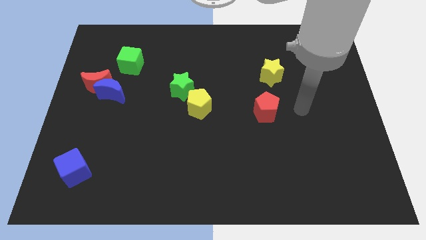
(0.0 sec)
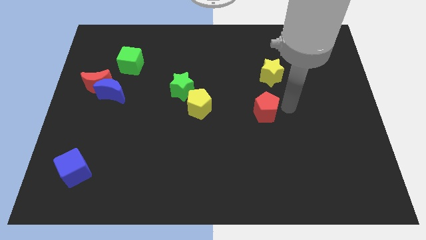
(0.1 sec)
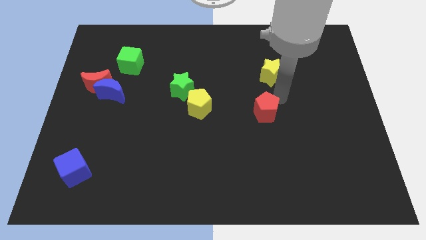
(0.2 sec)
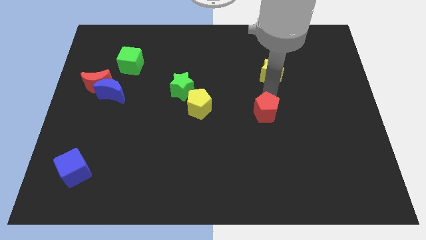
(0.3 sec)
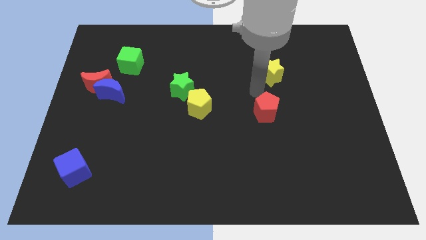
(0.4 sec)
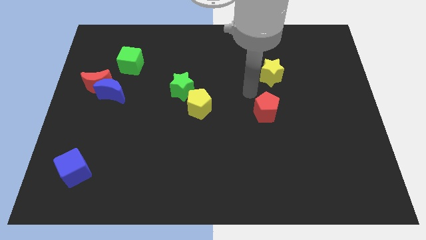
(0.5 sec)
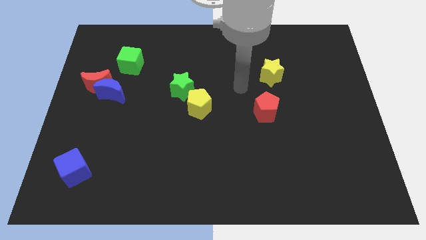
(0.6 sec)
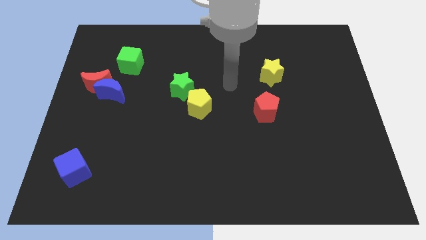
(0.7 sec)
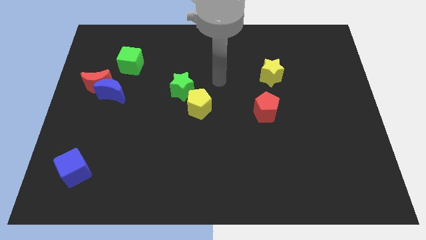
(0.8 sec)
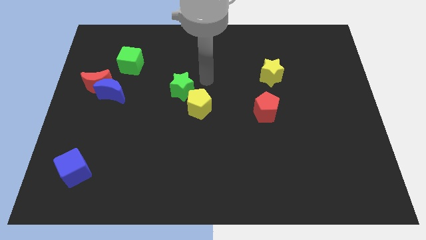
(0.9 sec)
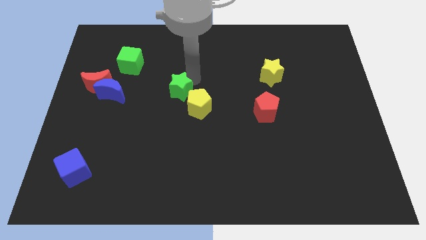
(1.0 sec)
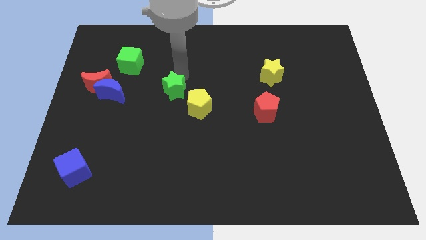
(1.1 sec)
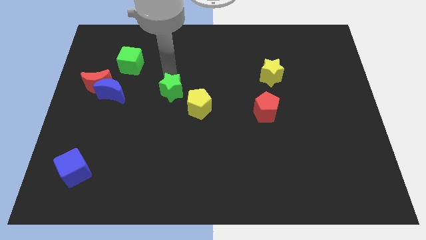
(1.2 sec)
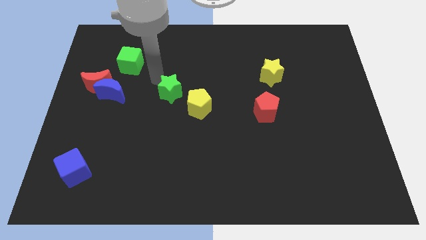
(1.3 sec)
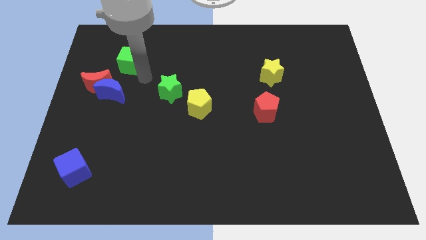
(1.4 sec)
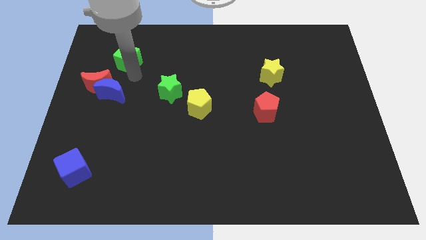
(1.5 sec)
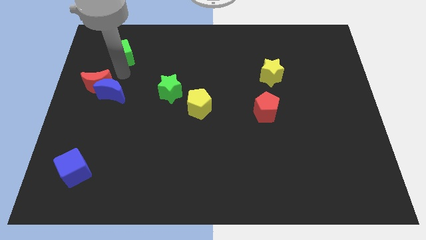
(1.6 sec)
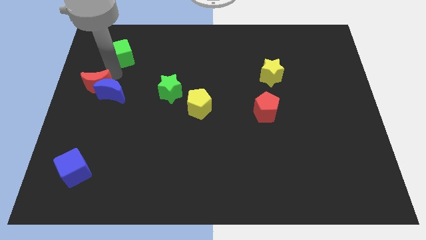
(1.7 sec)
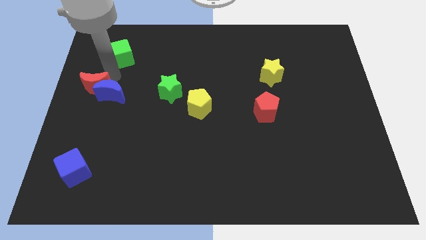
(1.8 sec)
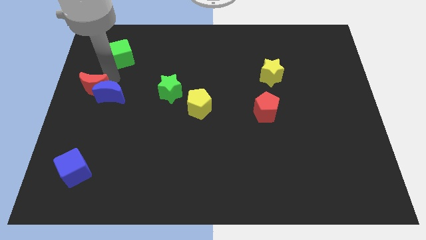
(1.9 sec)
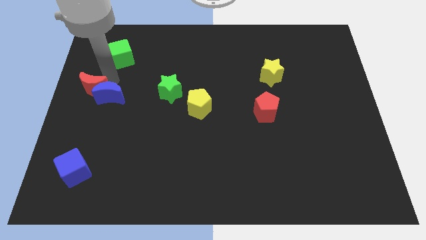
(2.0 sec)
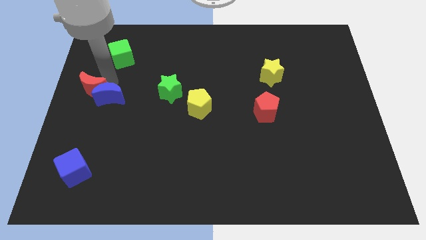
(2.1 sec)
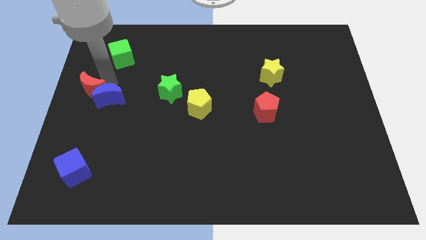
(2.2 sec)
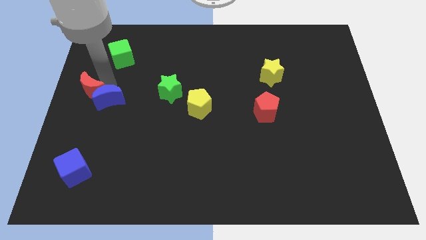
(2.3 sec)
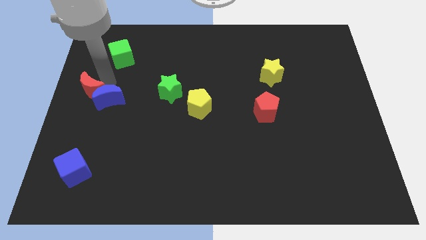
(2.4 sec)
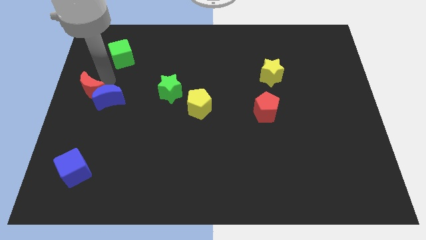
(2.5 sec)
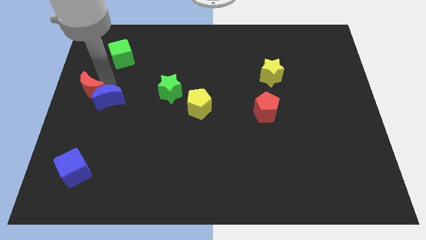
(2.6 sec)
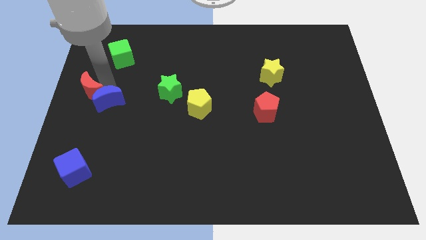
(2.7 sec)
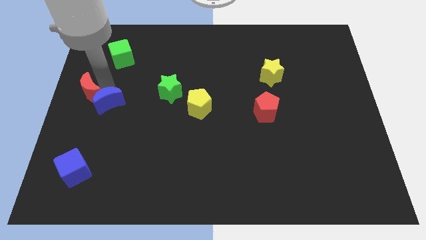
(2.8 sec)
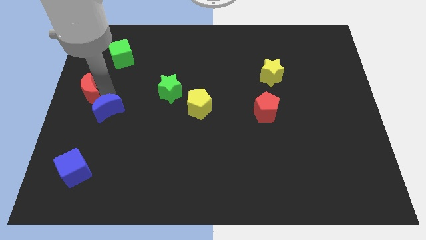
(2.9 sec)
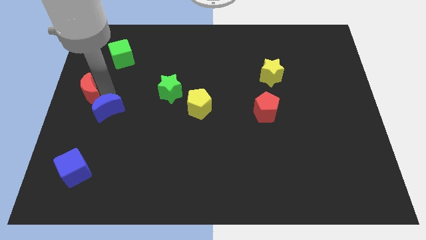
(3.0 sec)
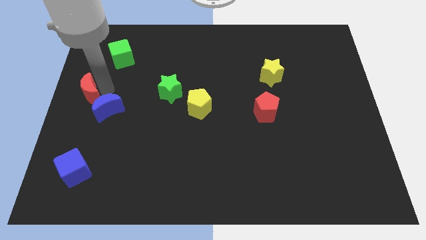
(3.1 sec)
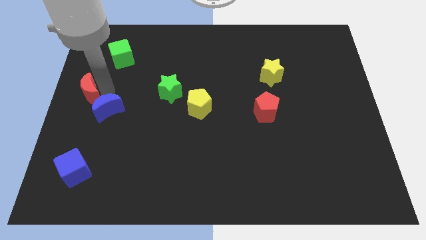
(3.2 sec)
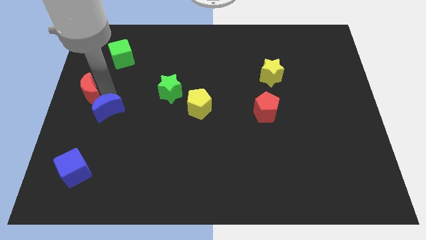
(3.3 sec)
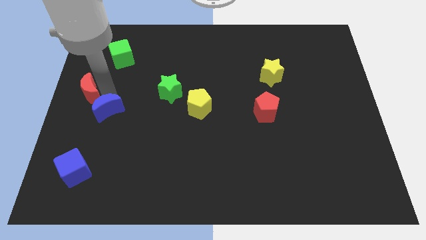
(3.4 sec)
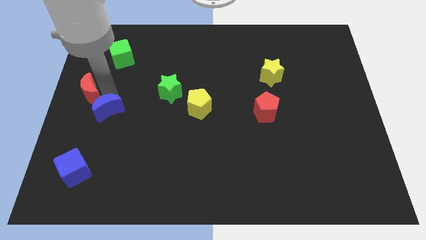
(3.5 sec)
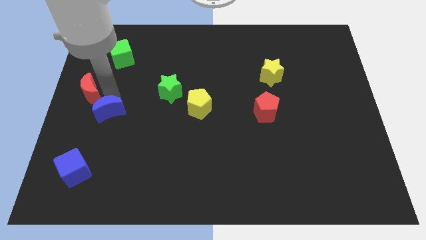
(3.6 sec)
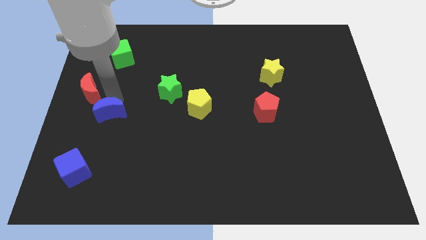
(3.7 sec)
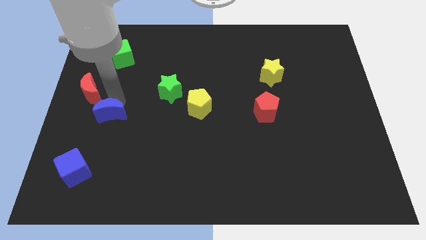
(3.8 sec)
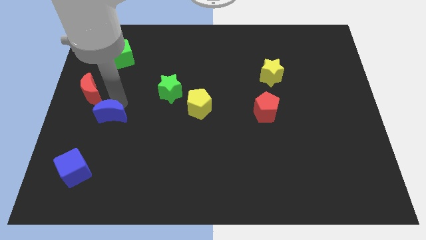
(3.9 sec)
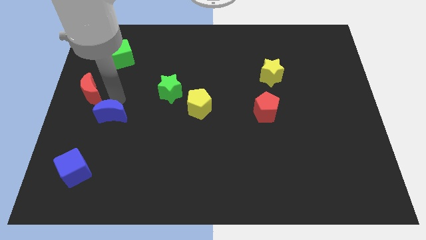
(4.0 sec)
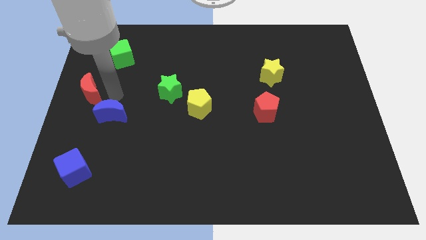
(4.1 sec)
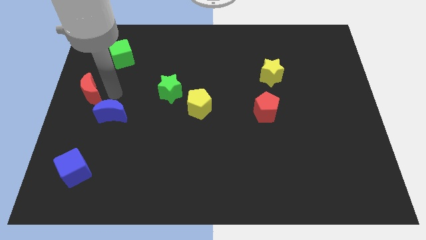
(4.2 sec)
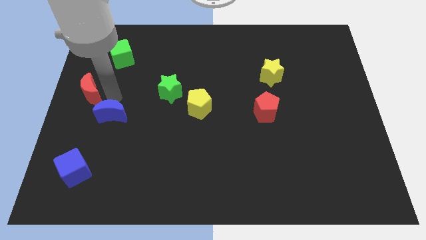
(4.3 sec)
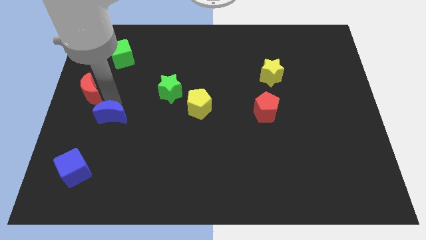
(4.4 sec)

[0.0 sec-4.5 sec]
push the blue moon downwards a little bit

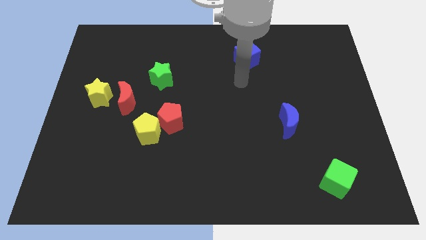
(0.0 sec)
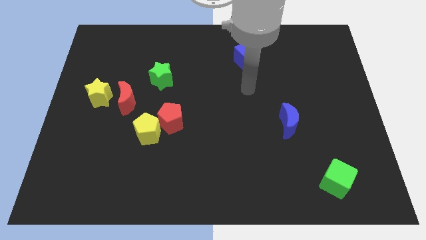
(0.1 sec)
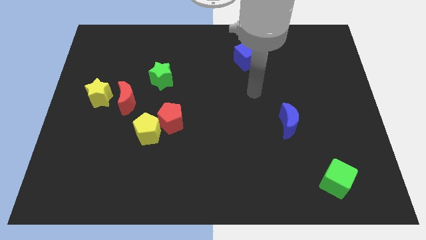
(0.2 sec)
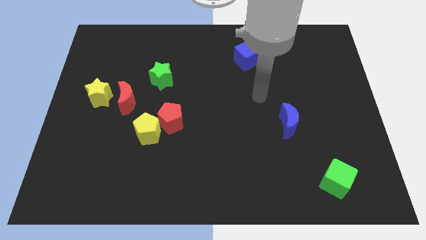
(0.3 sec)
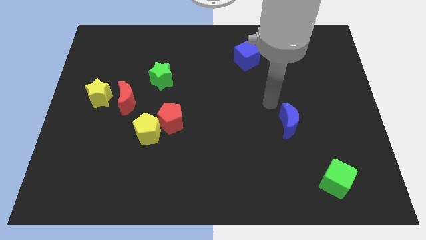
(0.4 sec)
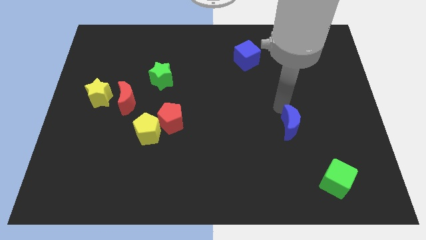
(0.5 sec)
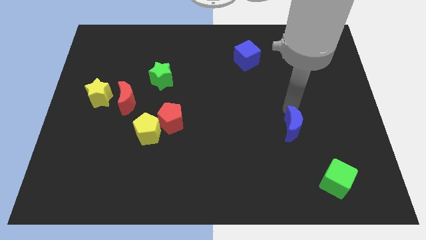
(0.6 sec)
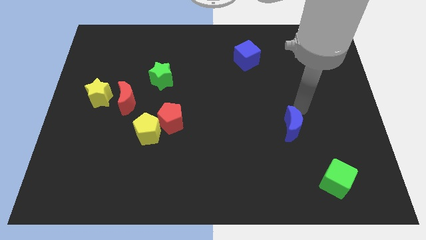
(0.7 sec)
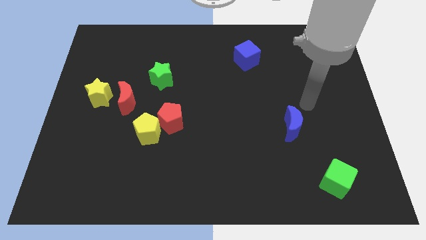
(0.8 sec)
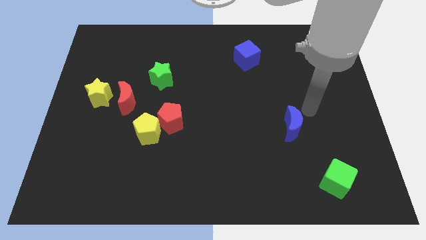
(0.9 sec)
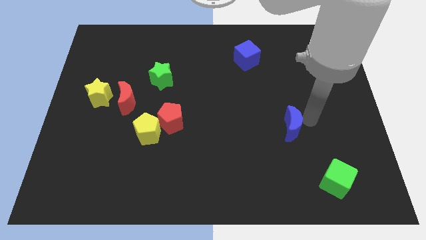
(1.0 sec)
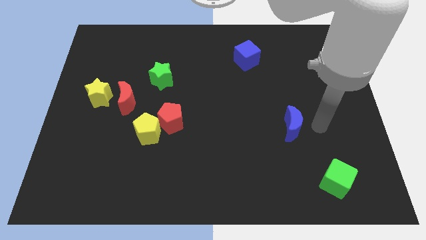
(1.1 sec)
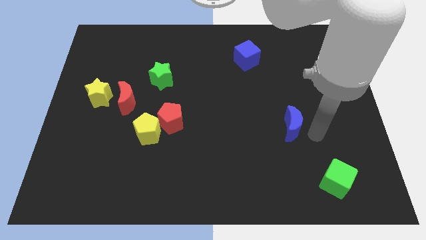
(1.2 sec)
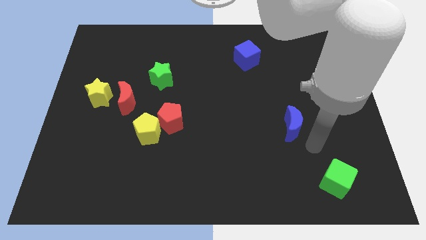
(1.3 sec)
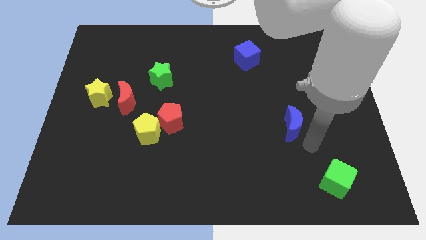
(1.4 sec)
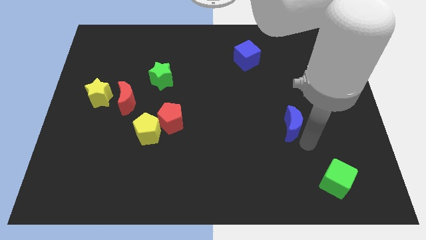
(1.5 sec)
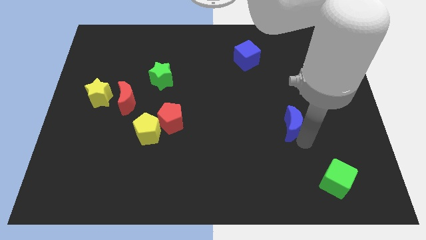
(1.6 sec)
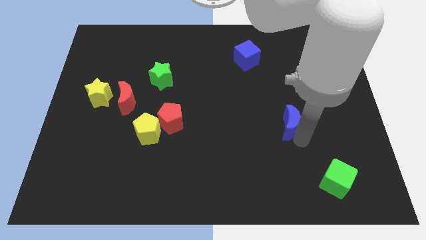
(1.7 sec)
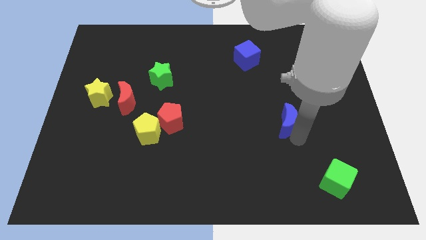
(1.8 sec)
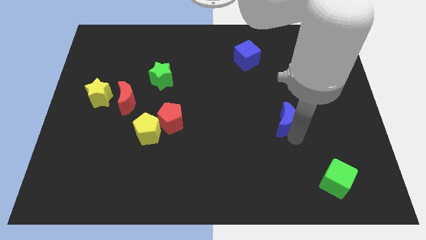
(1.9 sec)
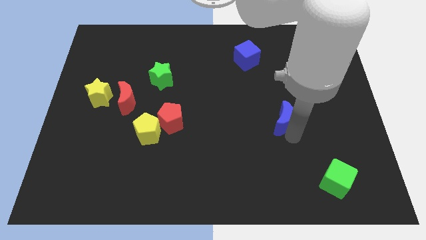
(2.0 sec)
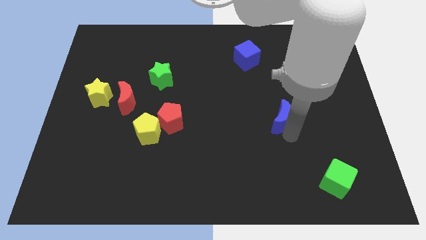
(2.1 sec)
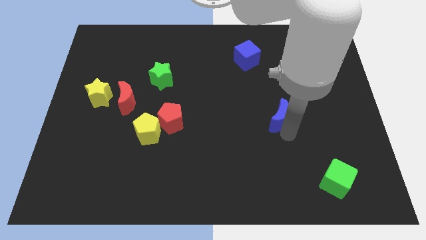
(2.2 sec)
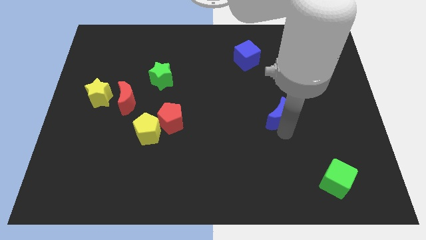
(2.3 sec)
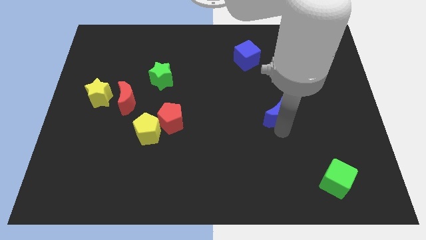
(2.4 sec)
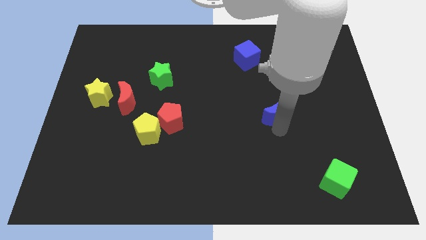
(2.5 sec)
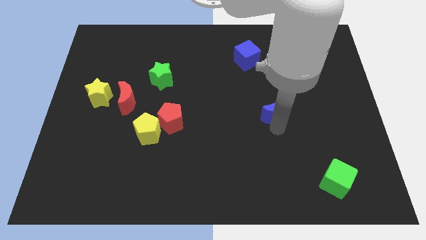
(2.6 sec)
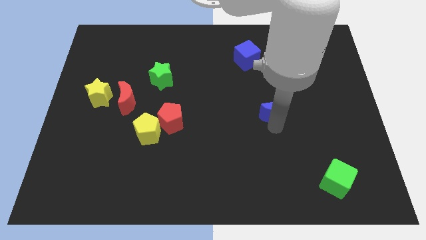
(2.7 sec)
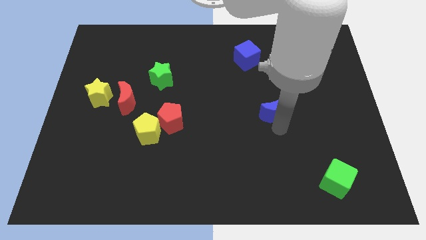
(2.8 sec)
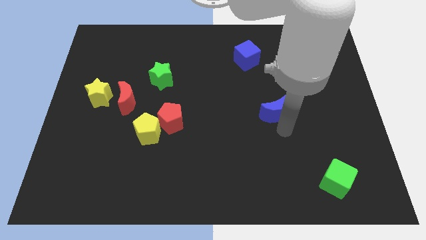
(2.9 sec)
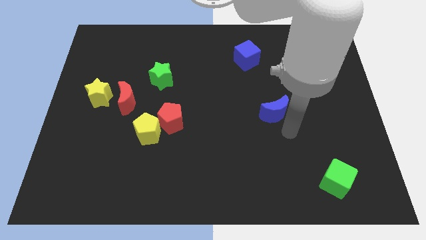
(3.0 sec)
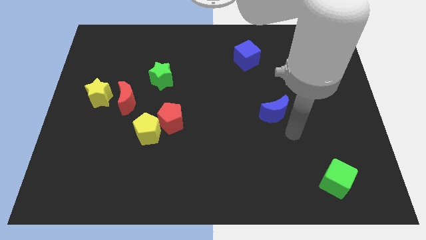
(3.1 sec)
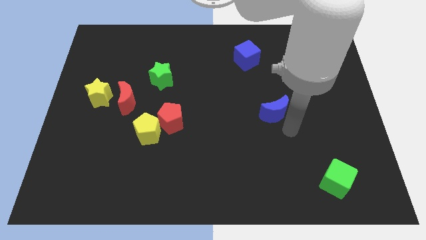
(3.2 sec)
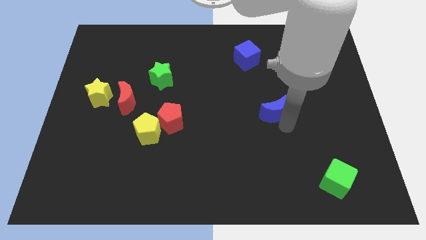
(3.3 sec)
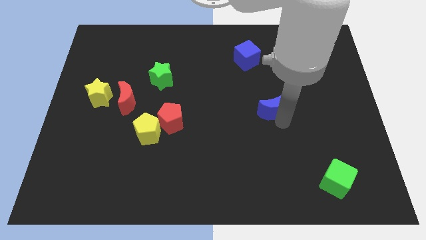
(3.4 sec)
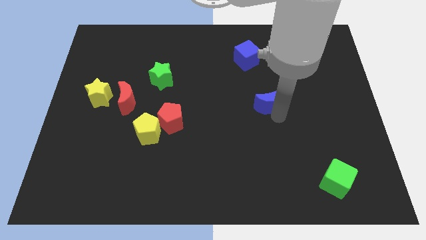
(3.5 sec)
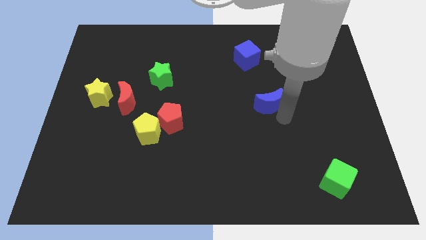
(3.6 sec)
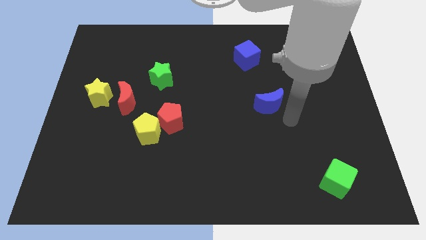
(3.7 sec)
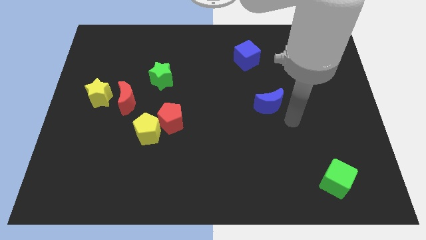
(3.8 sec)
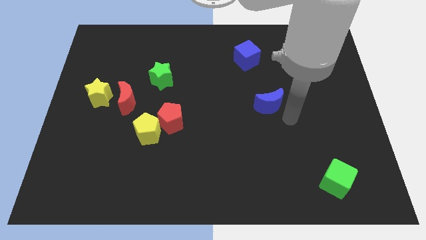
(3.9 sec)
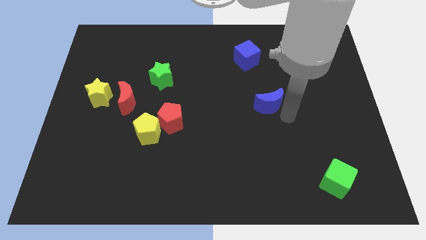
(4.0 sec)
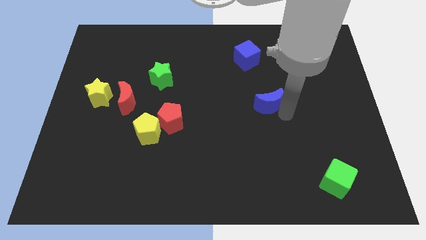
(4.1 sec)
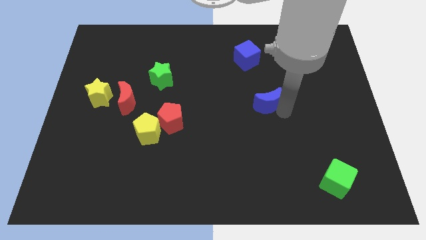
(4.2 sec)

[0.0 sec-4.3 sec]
move the blue moon somewhat upwards and left
